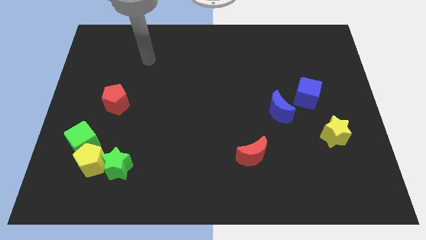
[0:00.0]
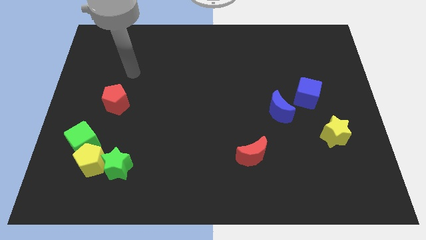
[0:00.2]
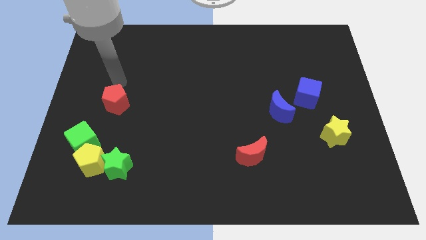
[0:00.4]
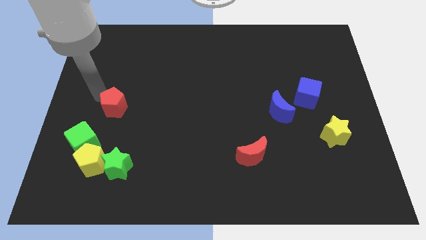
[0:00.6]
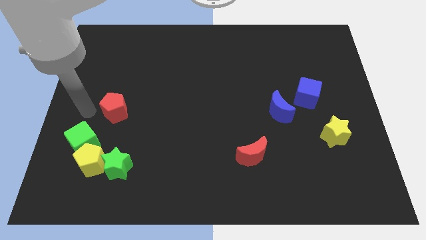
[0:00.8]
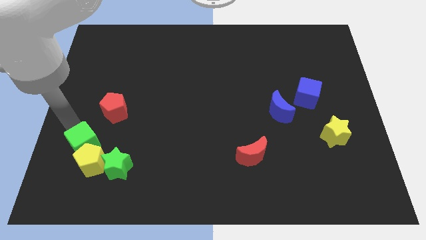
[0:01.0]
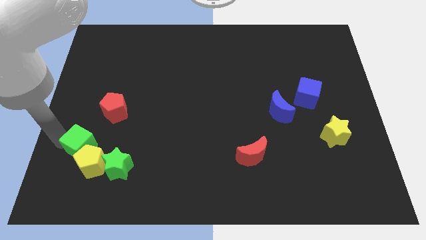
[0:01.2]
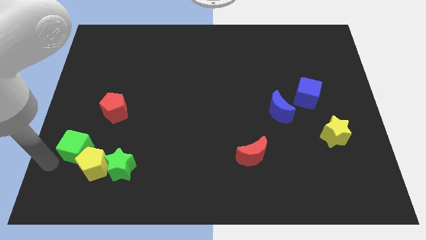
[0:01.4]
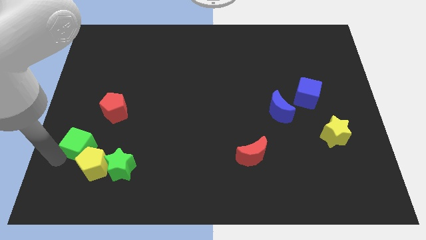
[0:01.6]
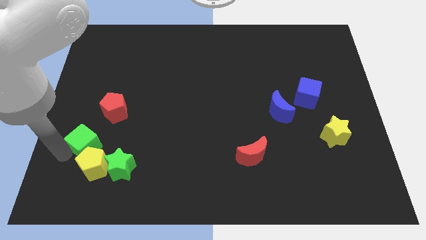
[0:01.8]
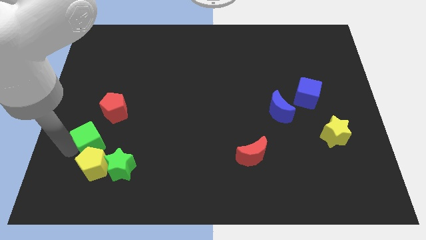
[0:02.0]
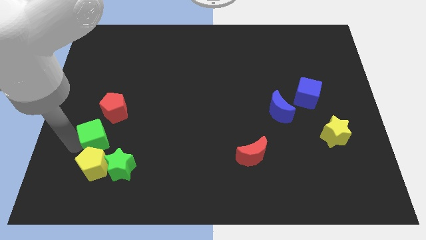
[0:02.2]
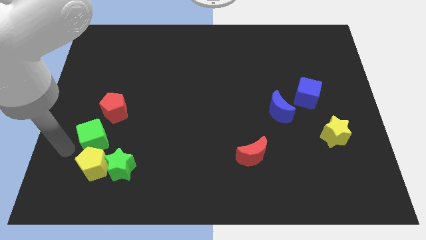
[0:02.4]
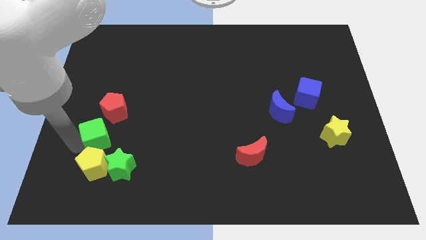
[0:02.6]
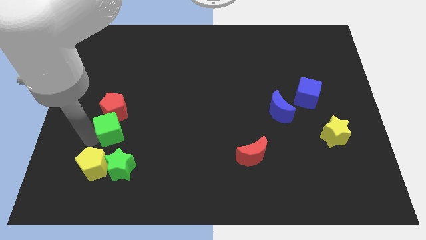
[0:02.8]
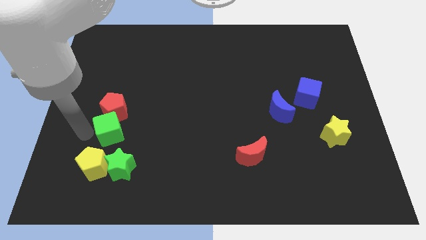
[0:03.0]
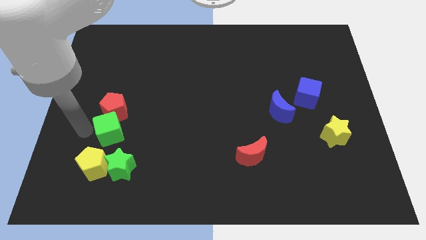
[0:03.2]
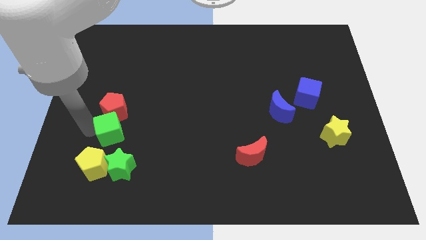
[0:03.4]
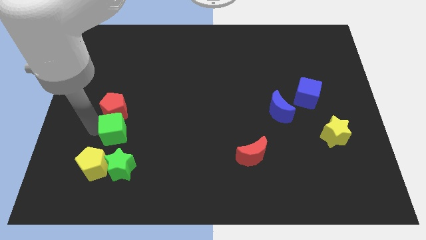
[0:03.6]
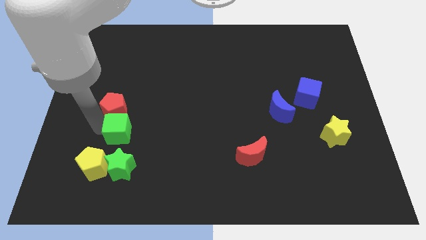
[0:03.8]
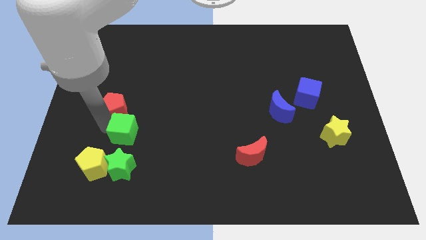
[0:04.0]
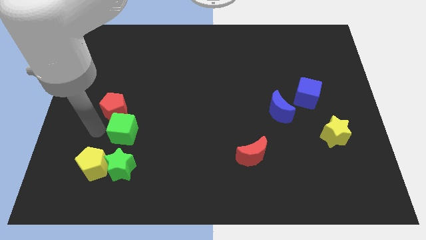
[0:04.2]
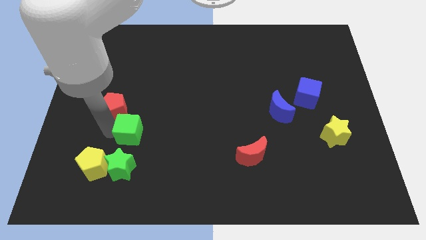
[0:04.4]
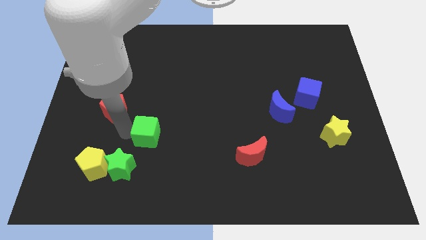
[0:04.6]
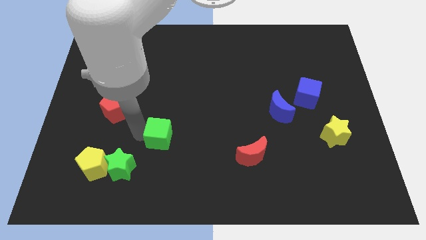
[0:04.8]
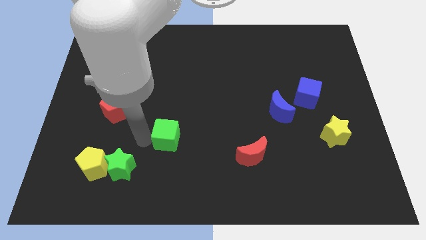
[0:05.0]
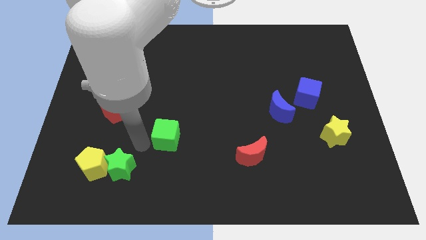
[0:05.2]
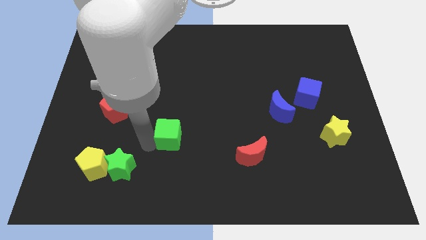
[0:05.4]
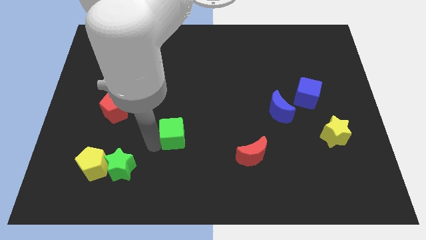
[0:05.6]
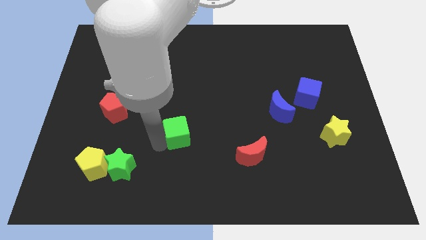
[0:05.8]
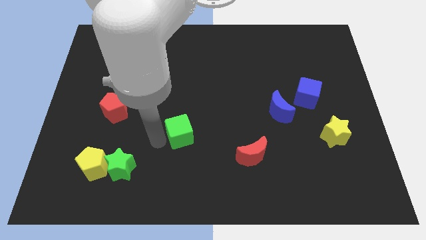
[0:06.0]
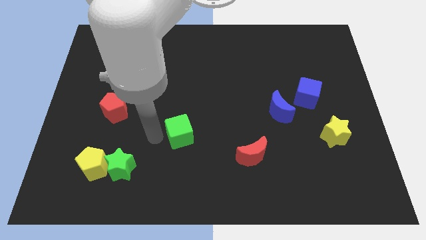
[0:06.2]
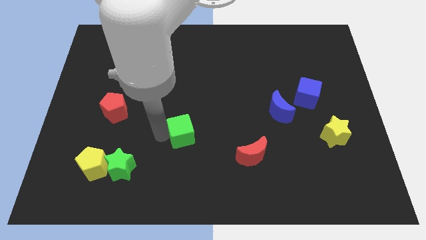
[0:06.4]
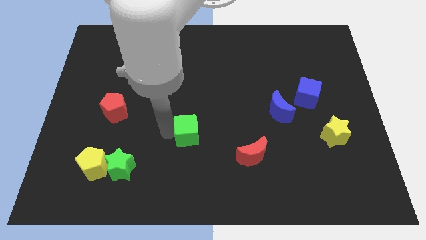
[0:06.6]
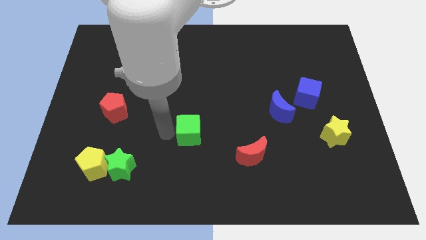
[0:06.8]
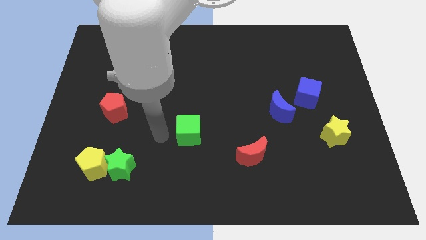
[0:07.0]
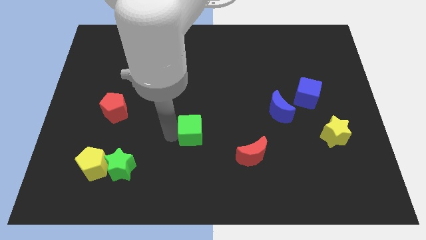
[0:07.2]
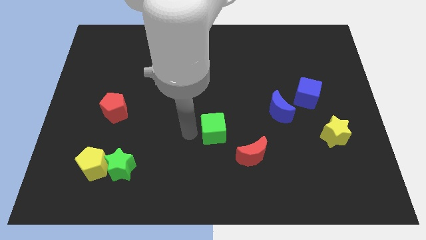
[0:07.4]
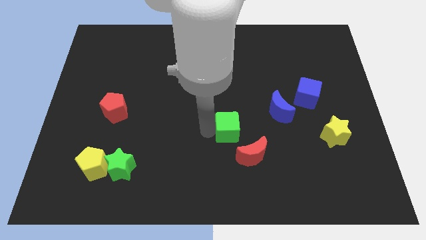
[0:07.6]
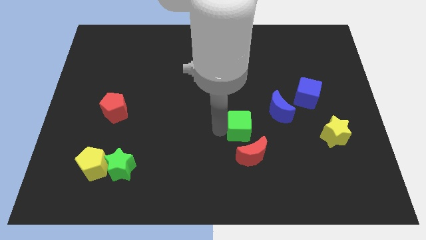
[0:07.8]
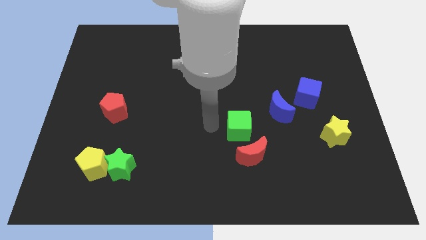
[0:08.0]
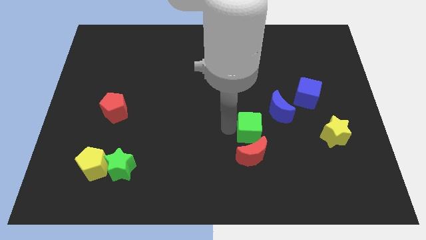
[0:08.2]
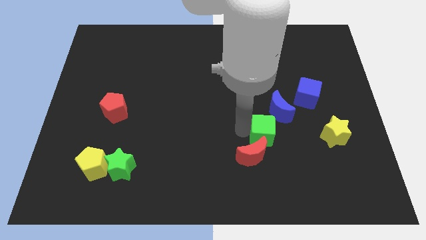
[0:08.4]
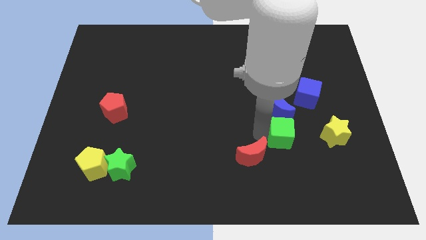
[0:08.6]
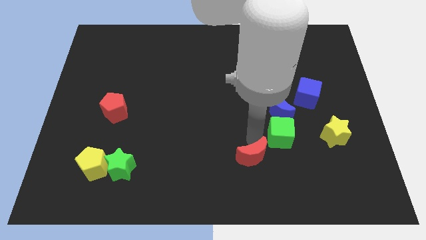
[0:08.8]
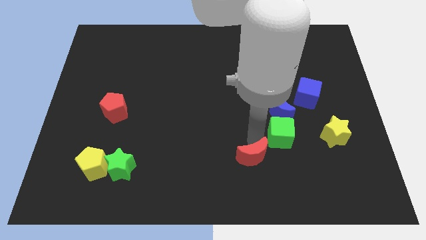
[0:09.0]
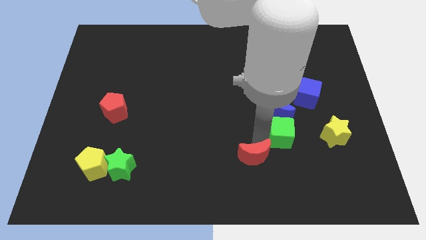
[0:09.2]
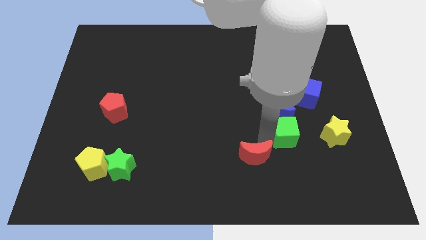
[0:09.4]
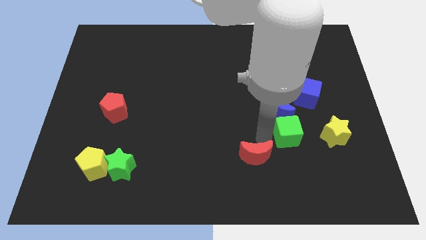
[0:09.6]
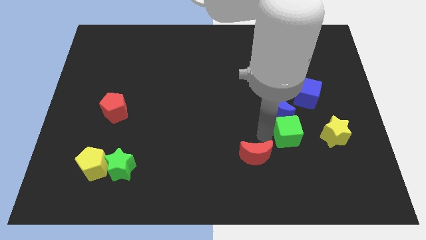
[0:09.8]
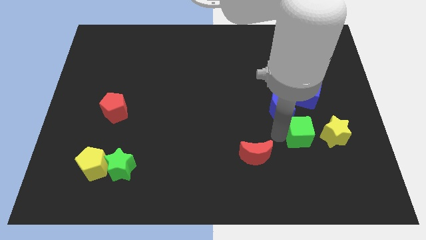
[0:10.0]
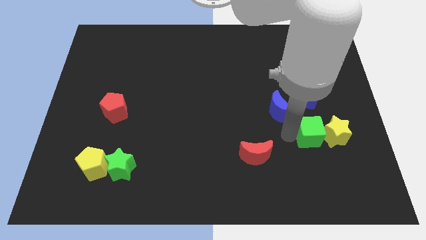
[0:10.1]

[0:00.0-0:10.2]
push the green cube next to the yellow star

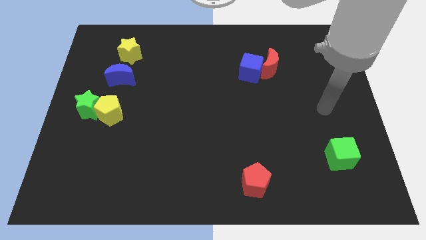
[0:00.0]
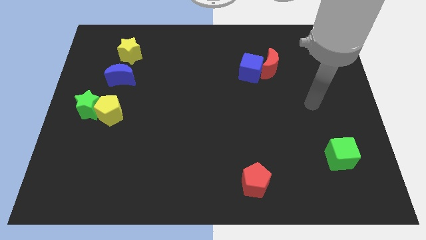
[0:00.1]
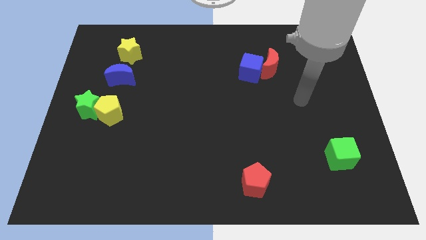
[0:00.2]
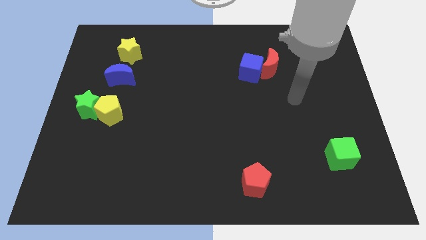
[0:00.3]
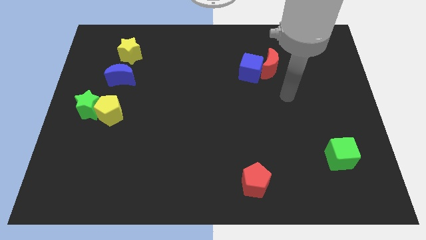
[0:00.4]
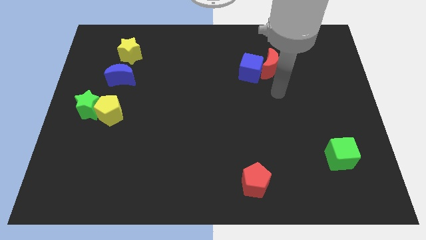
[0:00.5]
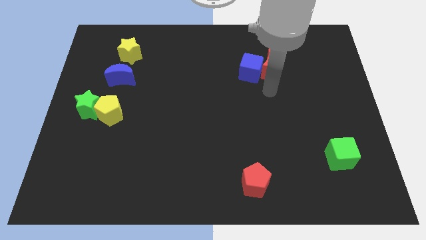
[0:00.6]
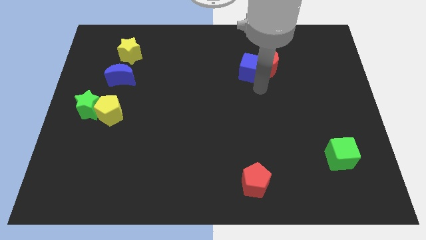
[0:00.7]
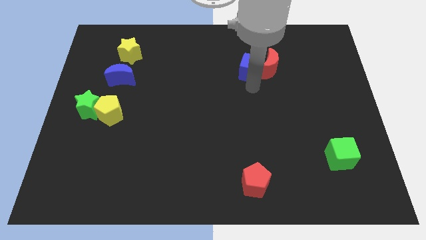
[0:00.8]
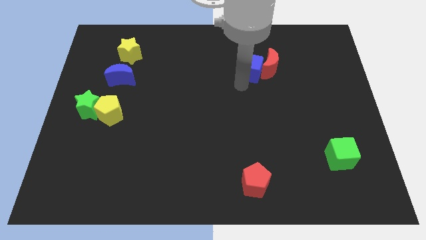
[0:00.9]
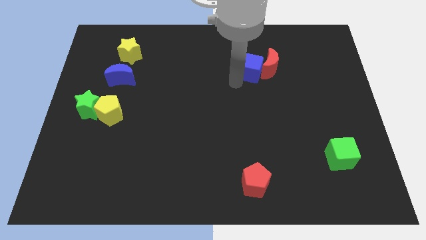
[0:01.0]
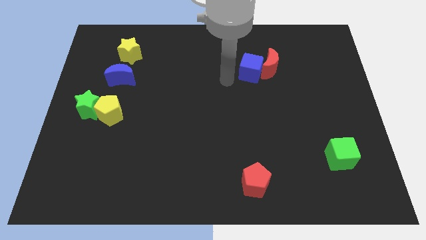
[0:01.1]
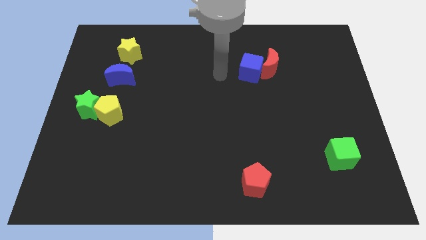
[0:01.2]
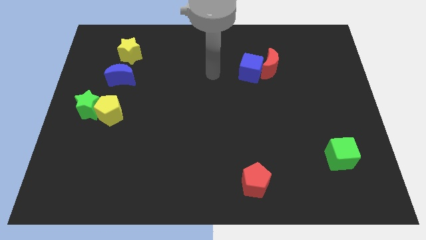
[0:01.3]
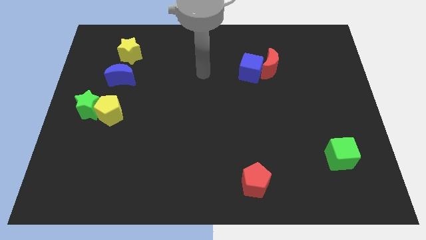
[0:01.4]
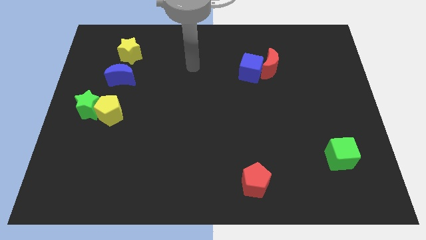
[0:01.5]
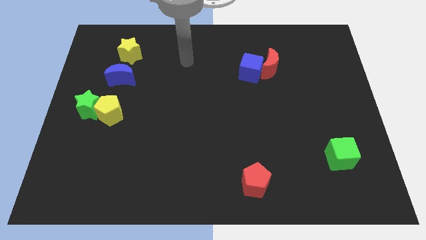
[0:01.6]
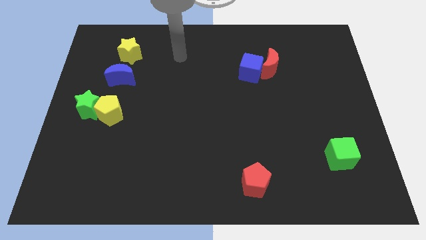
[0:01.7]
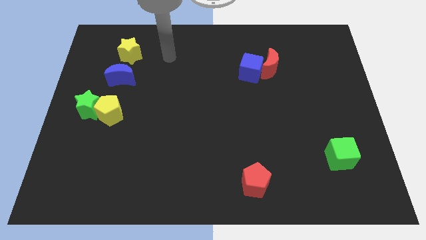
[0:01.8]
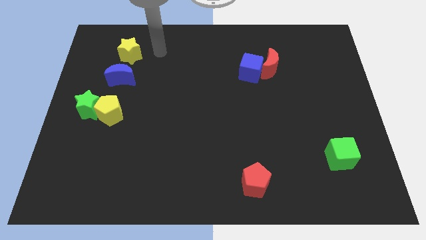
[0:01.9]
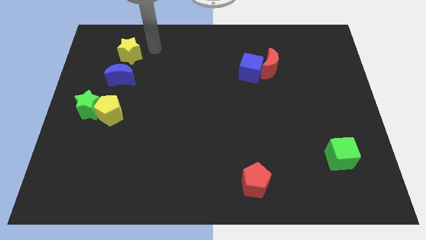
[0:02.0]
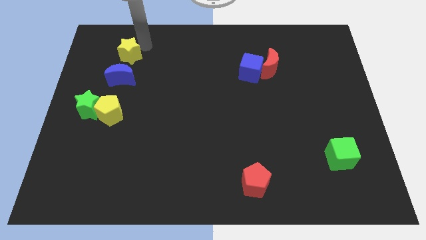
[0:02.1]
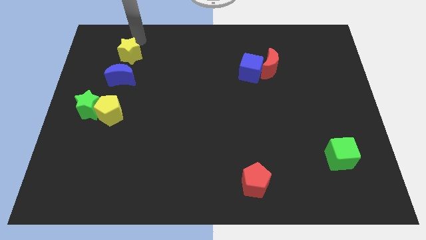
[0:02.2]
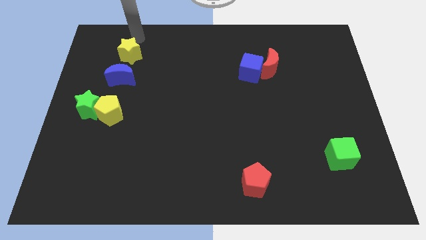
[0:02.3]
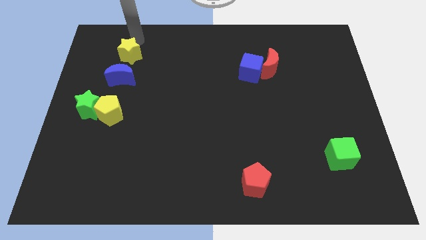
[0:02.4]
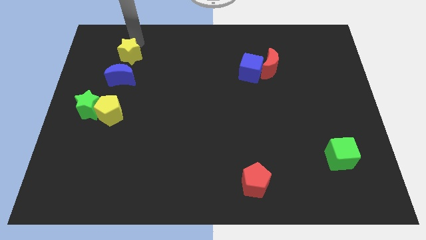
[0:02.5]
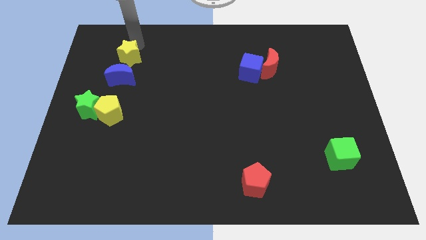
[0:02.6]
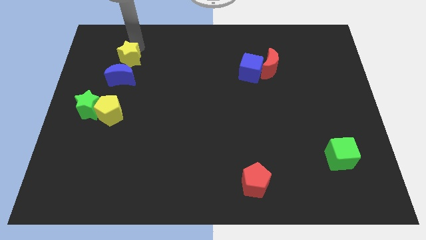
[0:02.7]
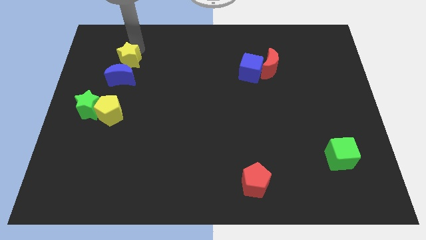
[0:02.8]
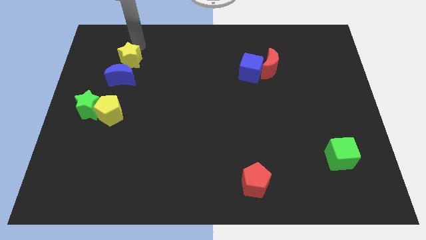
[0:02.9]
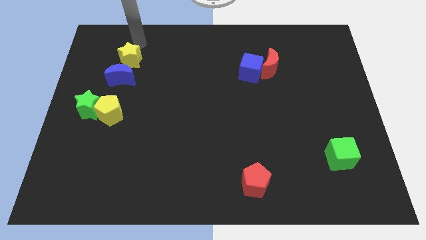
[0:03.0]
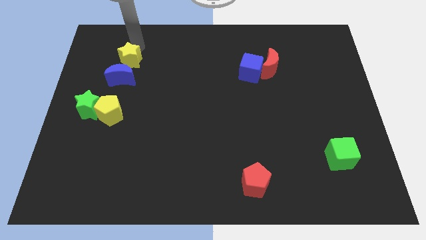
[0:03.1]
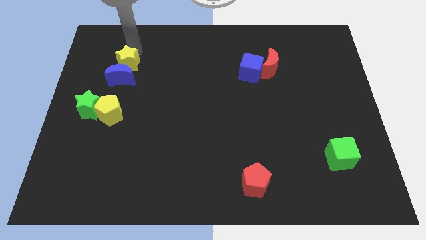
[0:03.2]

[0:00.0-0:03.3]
slide the yellow star towards the blue moon
